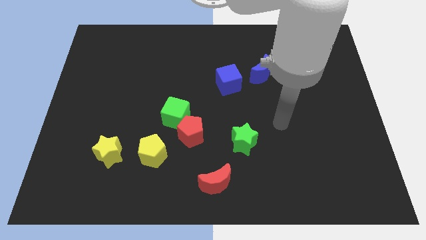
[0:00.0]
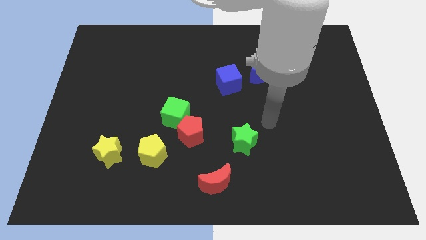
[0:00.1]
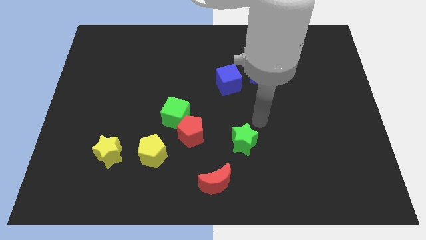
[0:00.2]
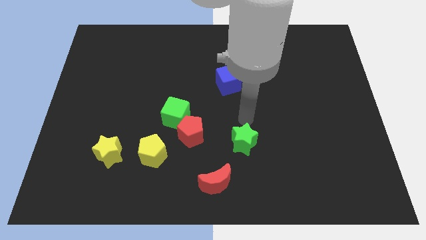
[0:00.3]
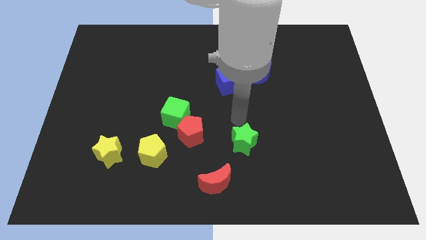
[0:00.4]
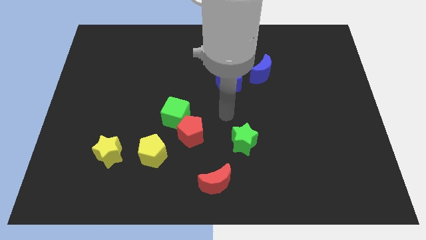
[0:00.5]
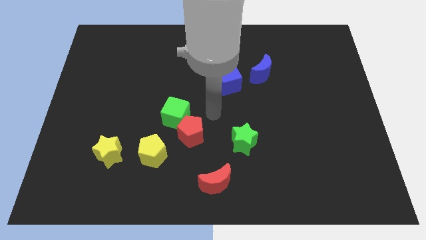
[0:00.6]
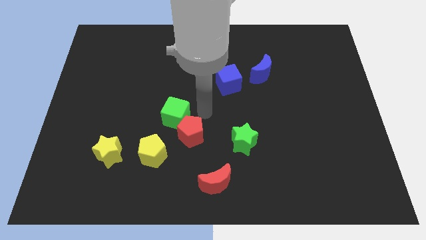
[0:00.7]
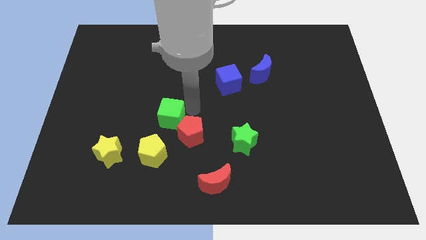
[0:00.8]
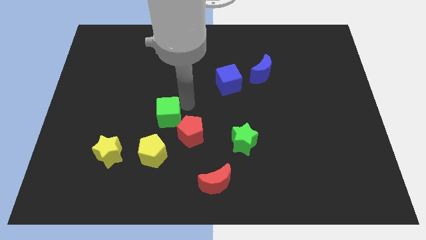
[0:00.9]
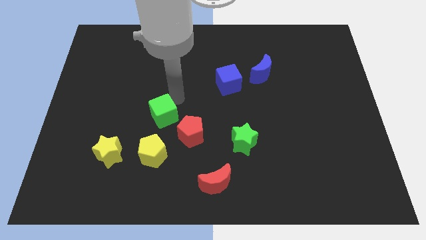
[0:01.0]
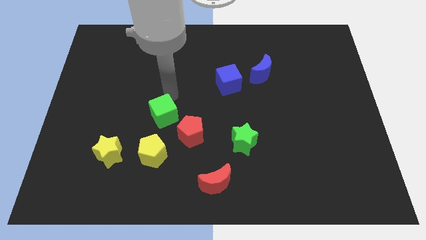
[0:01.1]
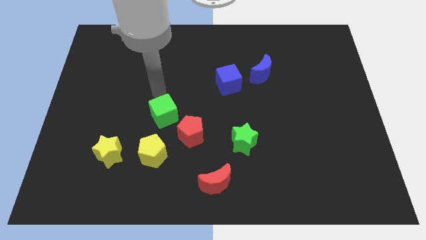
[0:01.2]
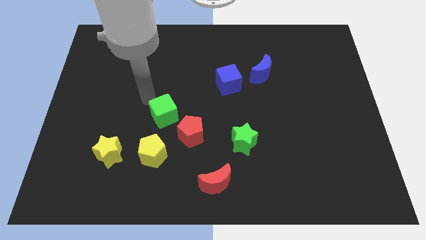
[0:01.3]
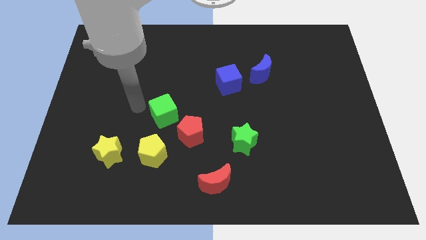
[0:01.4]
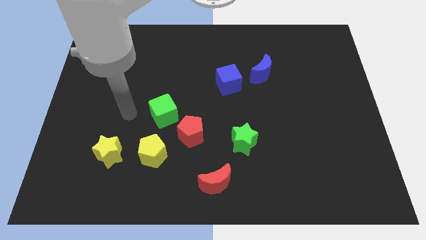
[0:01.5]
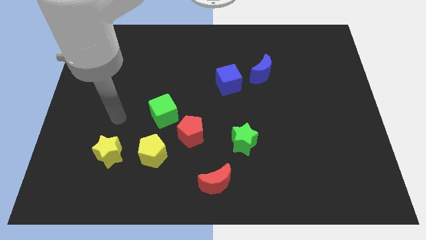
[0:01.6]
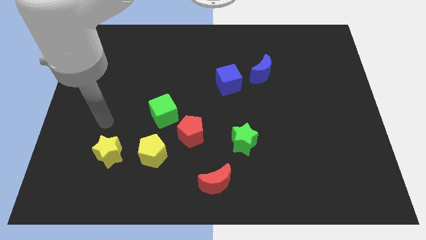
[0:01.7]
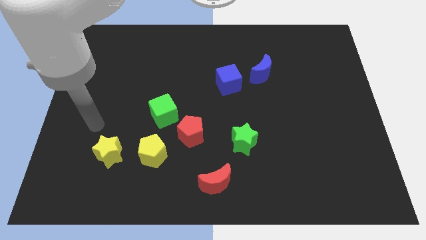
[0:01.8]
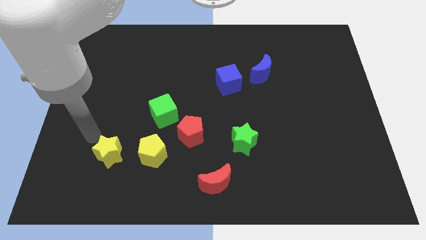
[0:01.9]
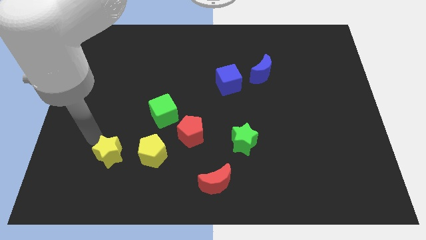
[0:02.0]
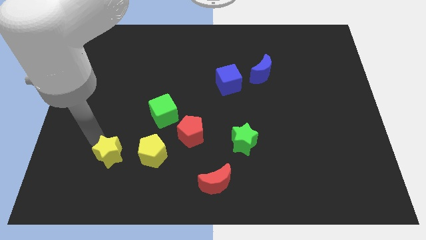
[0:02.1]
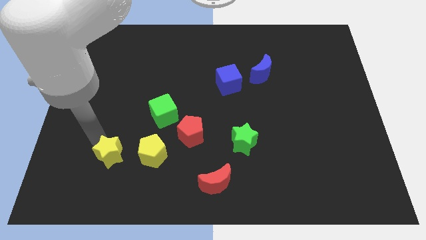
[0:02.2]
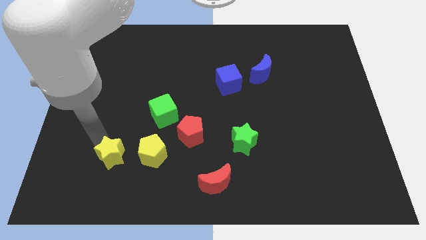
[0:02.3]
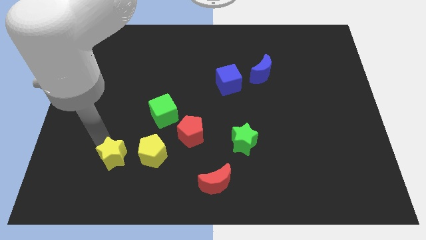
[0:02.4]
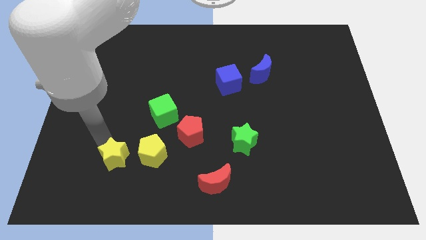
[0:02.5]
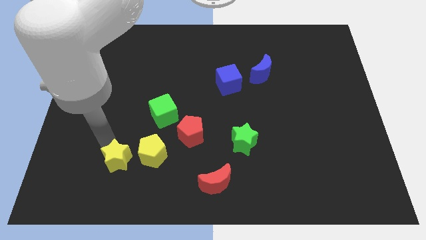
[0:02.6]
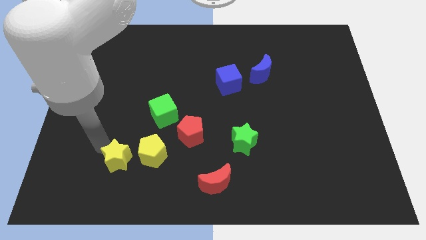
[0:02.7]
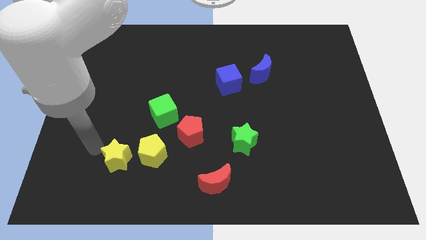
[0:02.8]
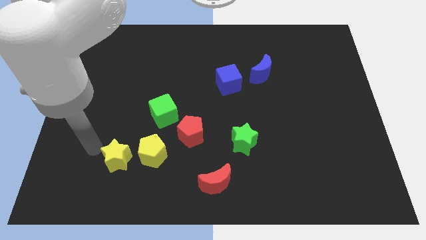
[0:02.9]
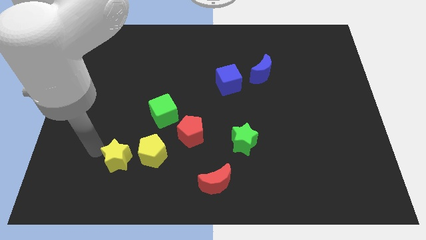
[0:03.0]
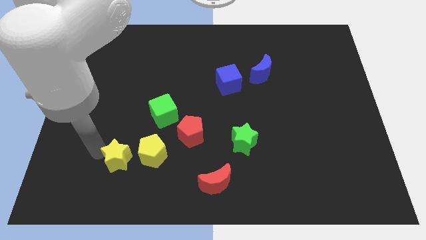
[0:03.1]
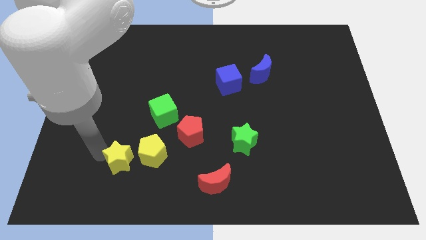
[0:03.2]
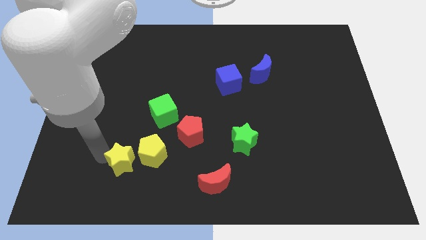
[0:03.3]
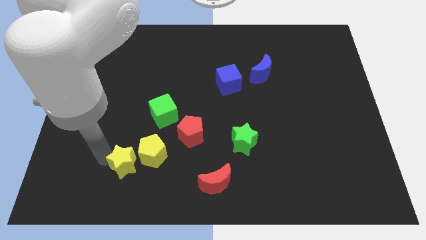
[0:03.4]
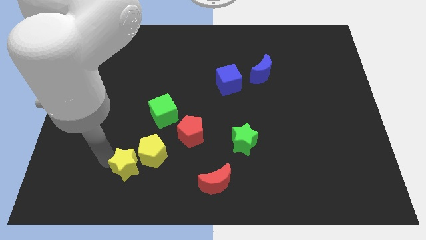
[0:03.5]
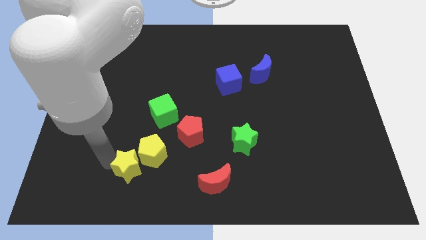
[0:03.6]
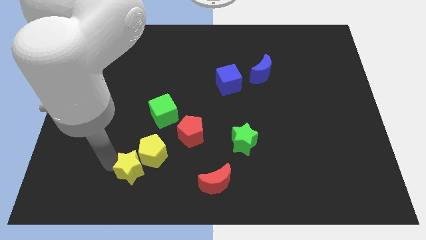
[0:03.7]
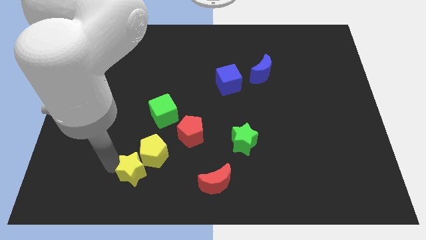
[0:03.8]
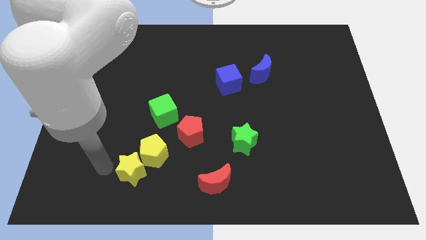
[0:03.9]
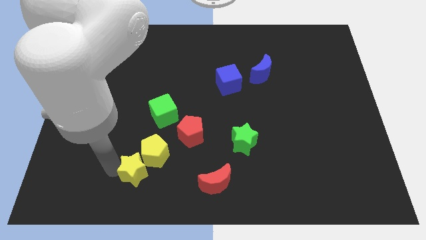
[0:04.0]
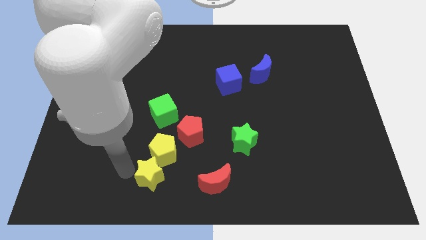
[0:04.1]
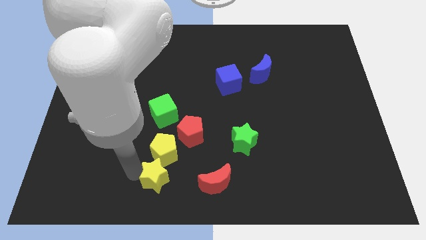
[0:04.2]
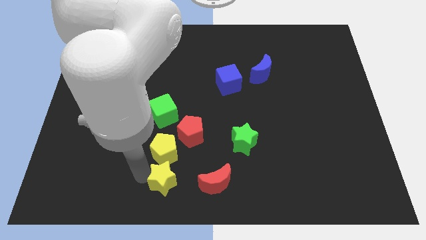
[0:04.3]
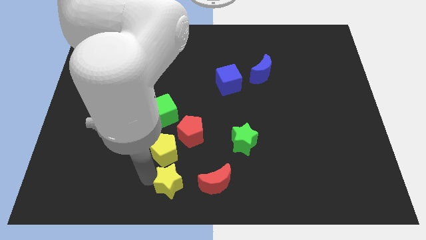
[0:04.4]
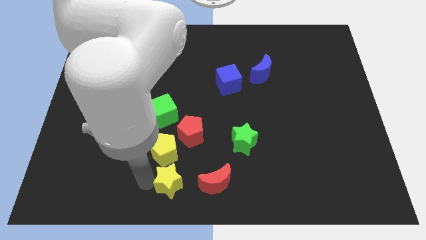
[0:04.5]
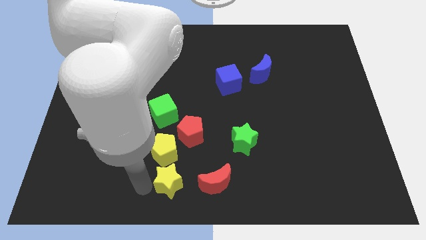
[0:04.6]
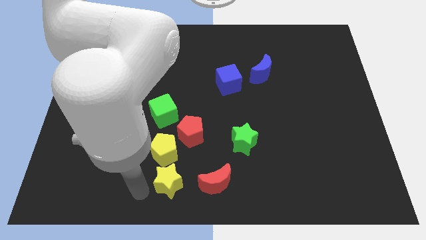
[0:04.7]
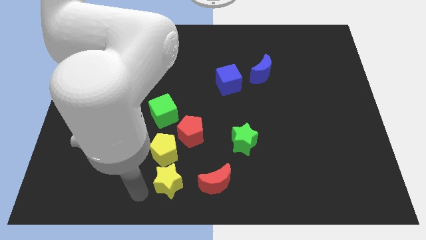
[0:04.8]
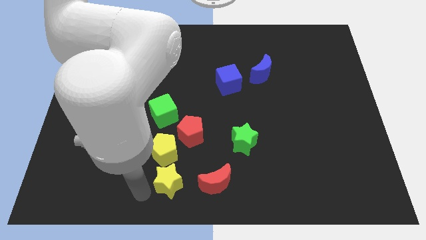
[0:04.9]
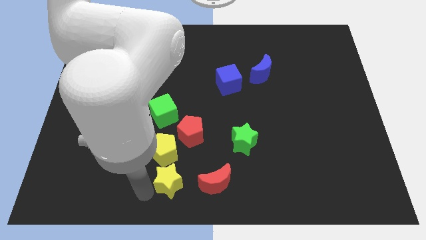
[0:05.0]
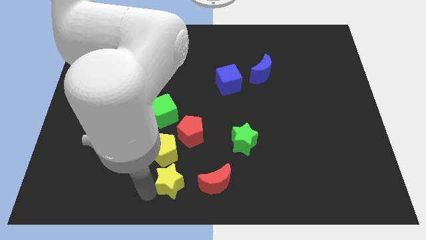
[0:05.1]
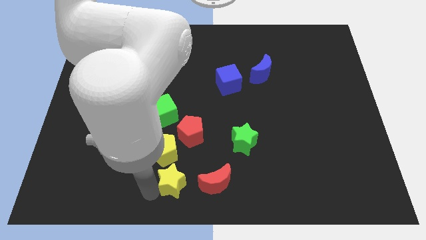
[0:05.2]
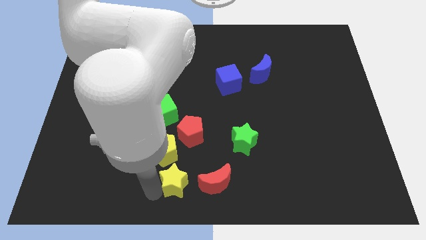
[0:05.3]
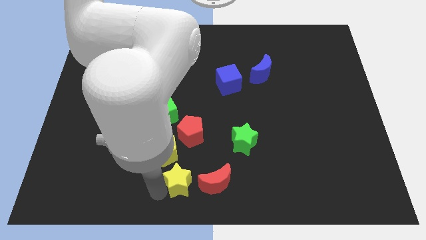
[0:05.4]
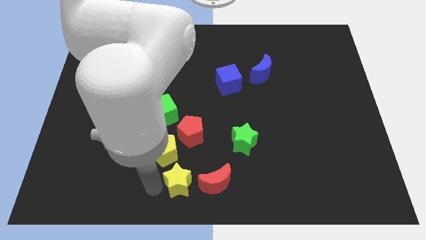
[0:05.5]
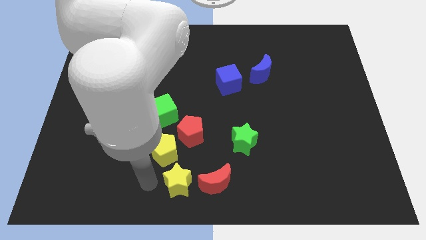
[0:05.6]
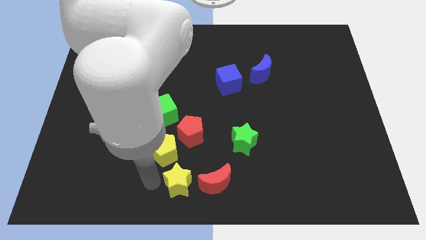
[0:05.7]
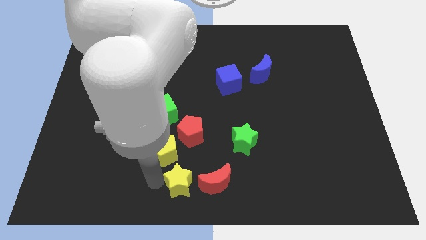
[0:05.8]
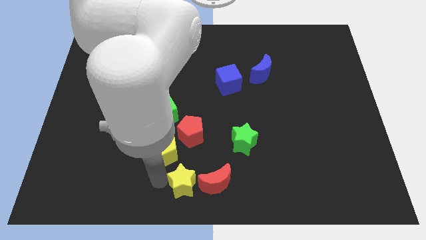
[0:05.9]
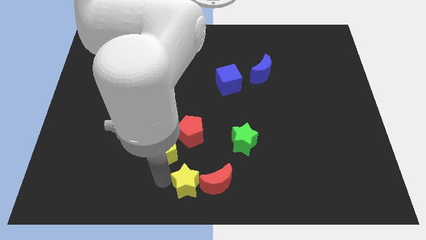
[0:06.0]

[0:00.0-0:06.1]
move the yellow star to the red moon
